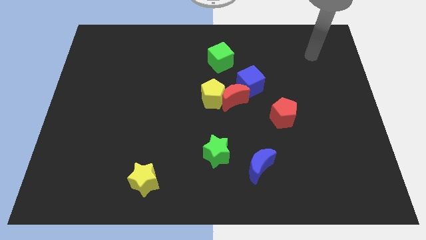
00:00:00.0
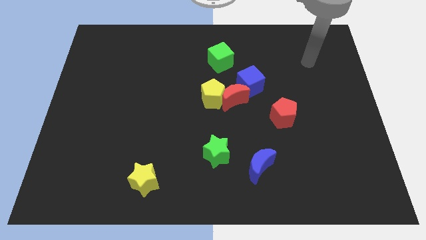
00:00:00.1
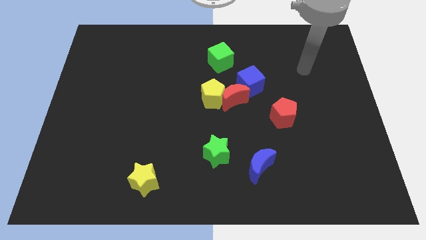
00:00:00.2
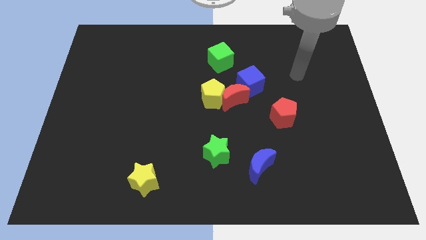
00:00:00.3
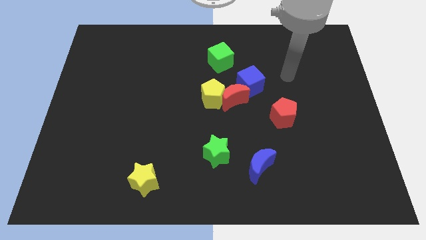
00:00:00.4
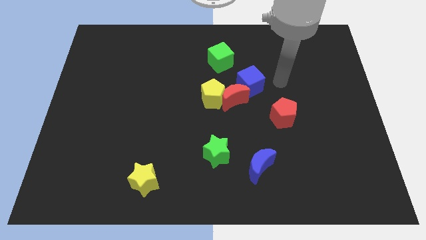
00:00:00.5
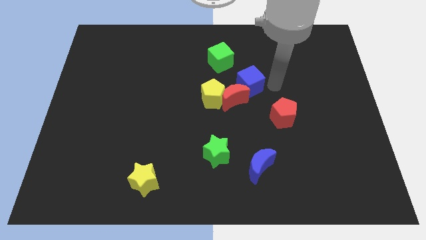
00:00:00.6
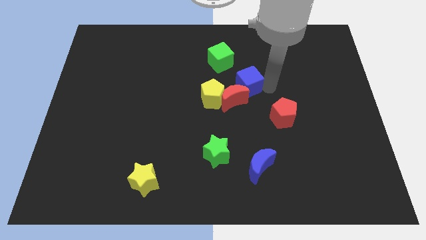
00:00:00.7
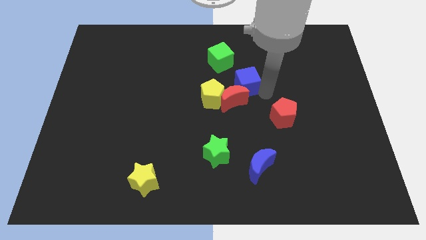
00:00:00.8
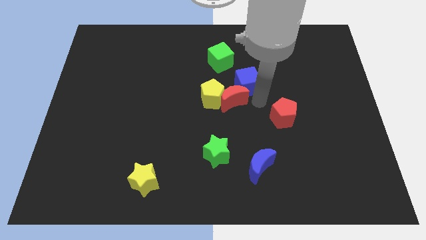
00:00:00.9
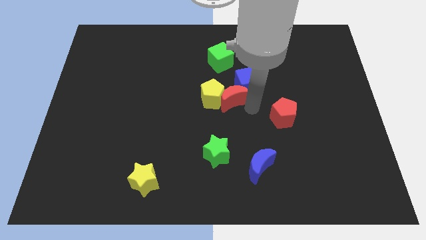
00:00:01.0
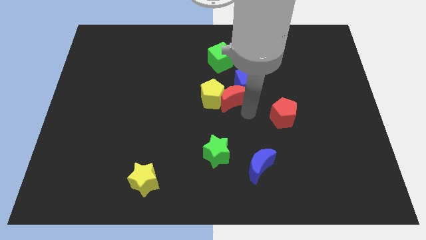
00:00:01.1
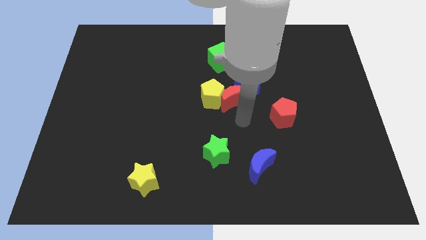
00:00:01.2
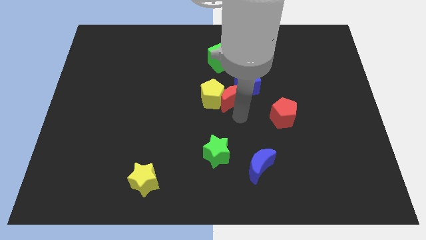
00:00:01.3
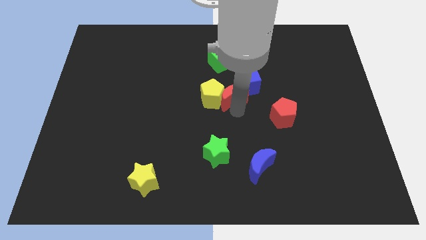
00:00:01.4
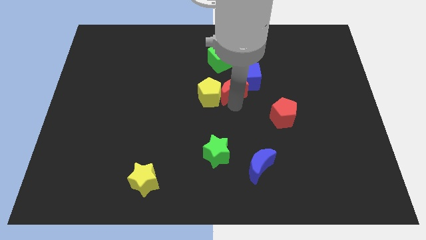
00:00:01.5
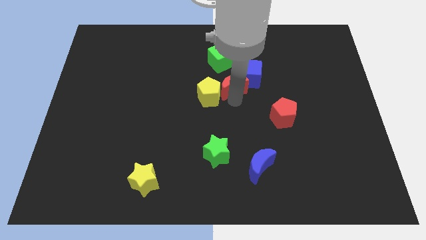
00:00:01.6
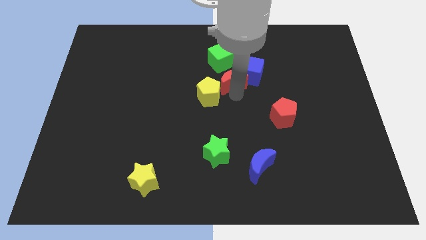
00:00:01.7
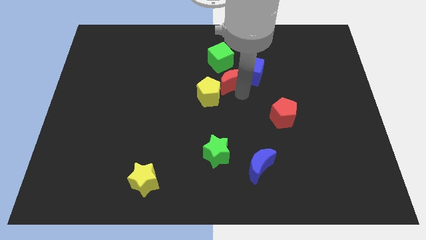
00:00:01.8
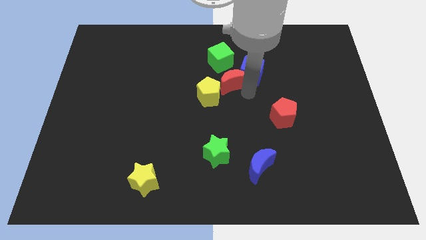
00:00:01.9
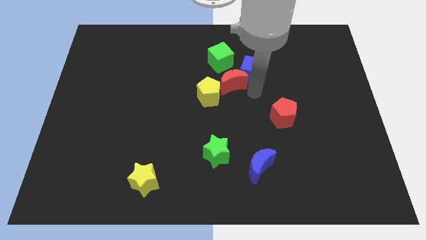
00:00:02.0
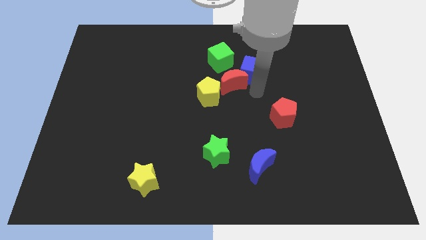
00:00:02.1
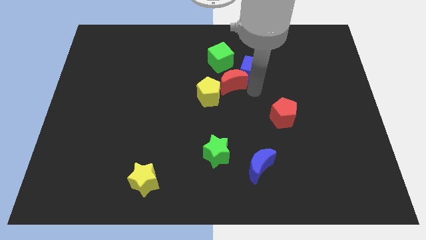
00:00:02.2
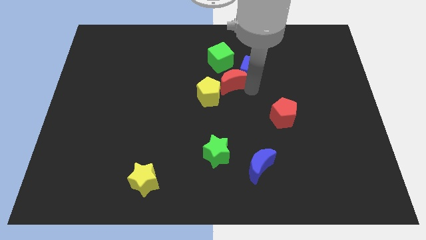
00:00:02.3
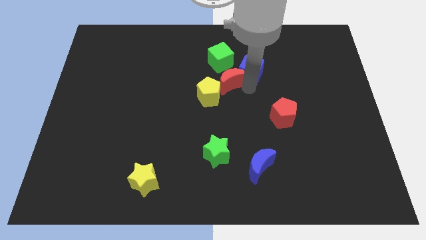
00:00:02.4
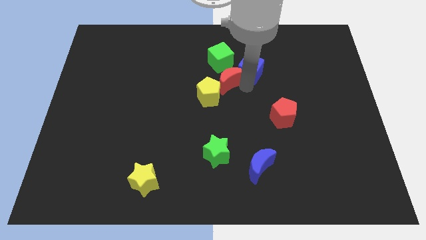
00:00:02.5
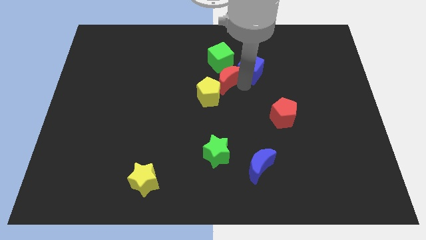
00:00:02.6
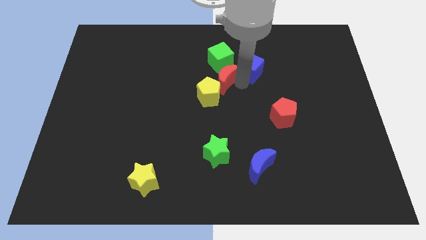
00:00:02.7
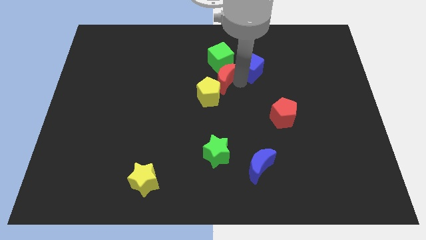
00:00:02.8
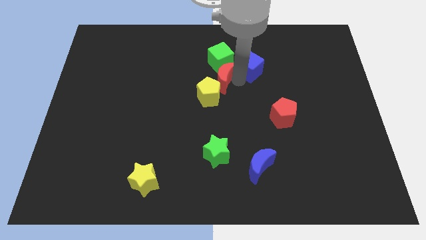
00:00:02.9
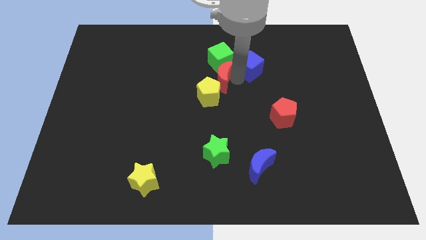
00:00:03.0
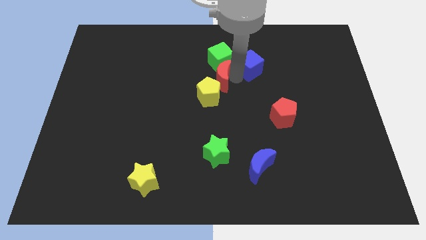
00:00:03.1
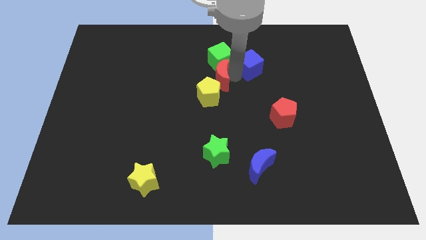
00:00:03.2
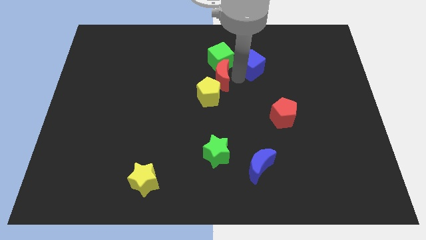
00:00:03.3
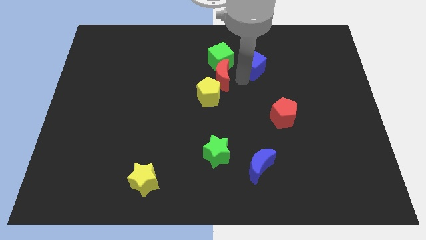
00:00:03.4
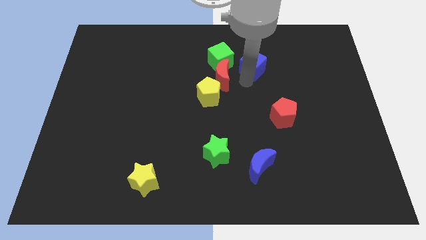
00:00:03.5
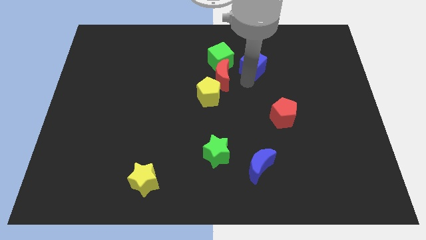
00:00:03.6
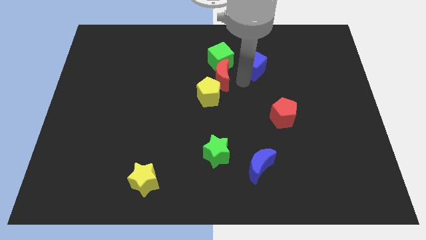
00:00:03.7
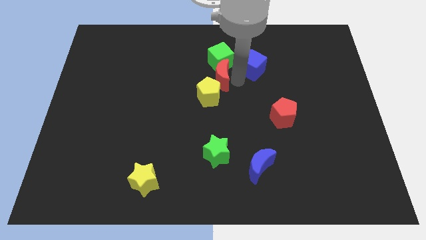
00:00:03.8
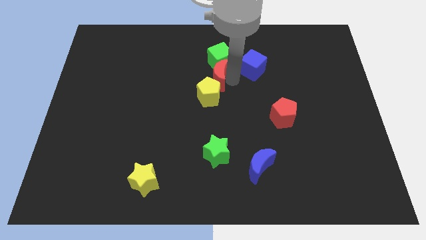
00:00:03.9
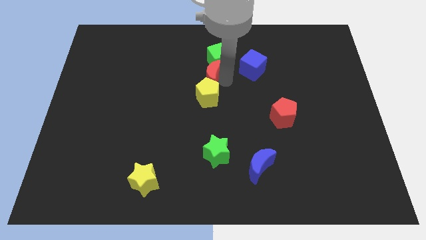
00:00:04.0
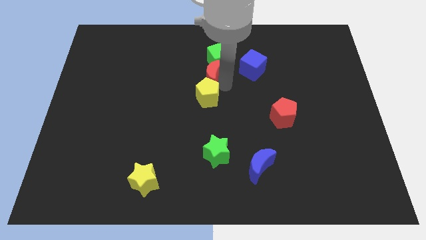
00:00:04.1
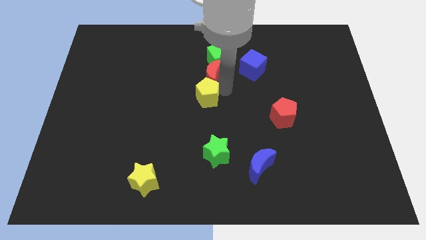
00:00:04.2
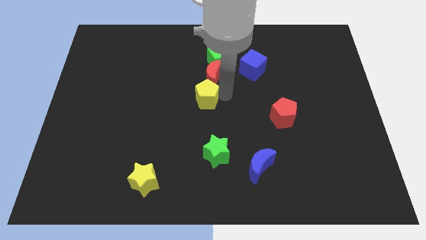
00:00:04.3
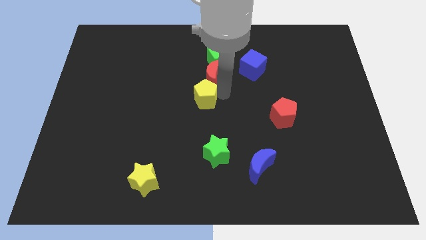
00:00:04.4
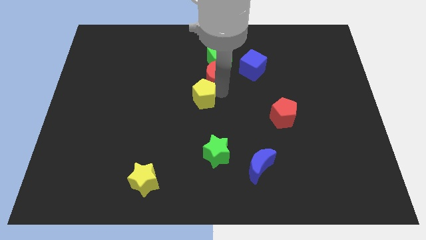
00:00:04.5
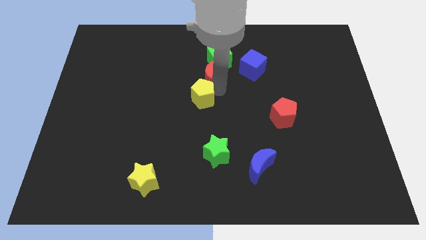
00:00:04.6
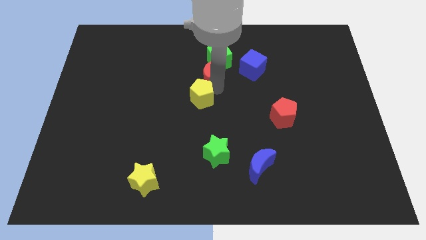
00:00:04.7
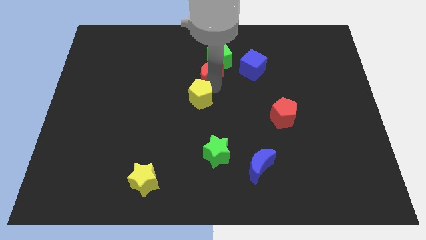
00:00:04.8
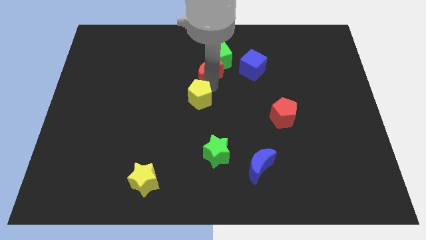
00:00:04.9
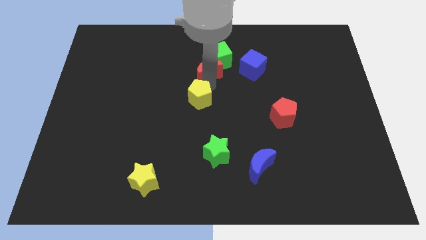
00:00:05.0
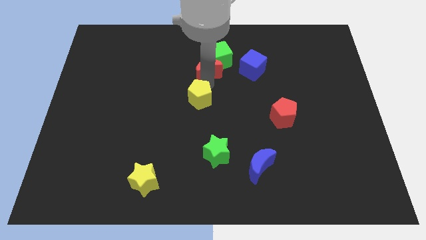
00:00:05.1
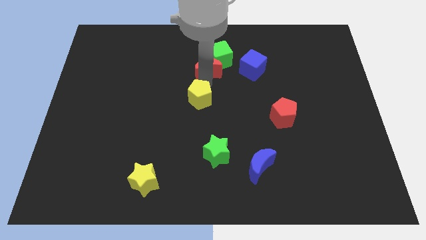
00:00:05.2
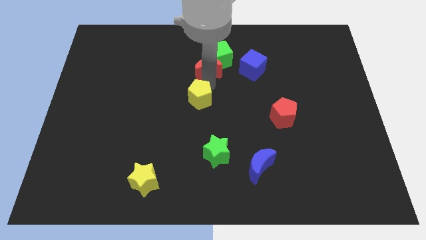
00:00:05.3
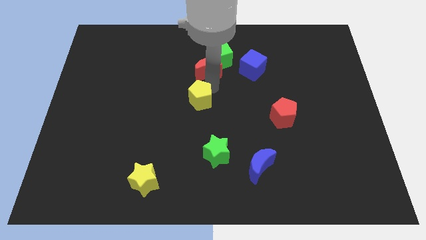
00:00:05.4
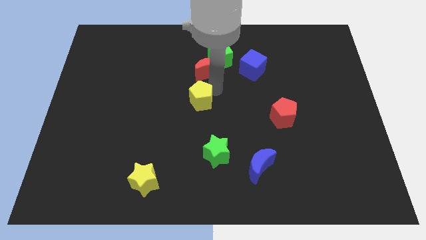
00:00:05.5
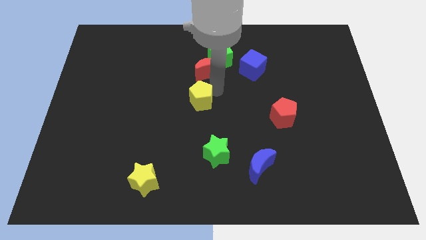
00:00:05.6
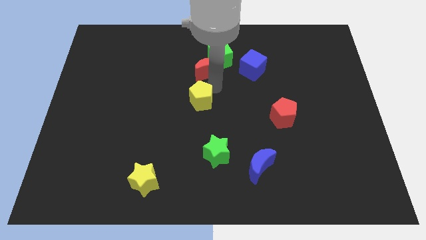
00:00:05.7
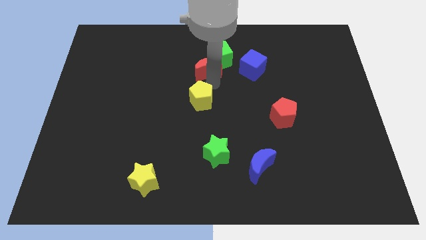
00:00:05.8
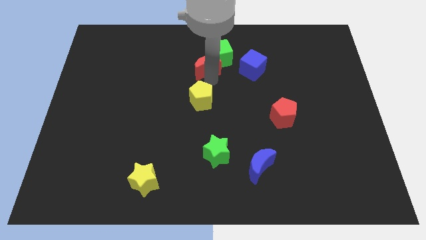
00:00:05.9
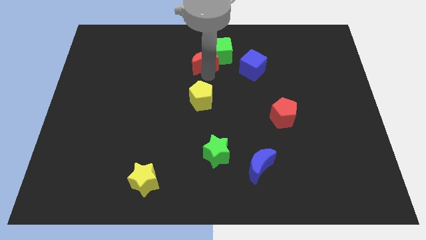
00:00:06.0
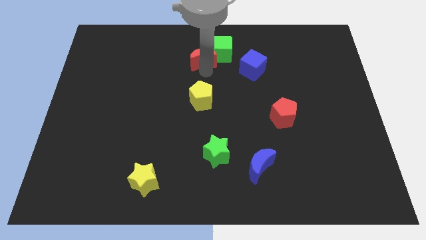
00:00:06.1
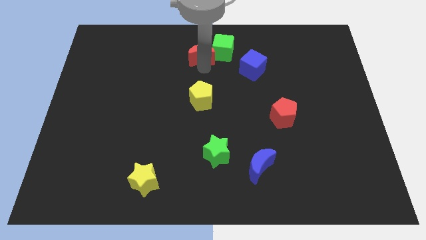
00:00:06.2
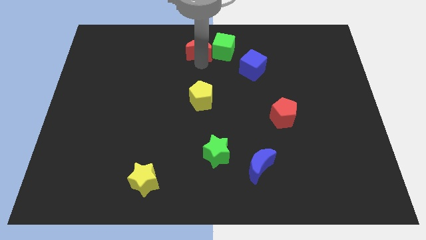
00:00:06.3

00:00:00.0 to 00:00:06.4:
slide the red moon to the top

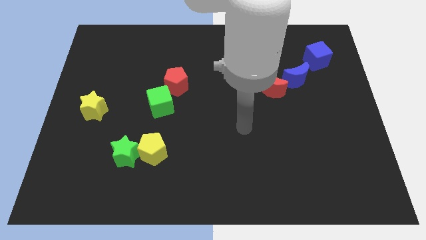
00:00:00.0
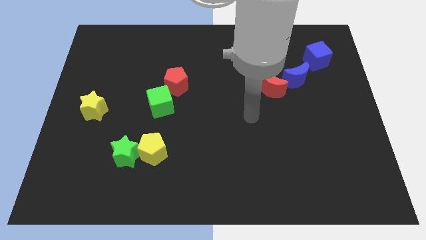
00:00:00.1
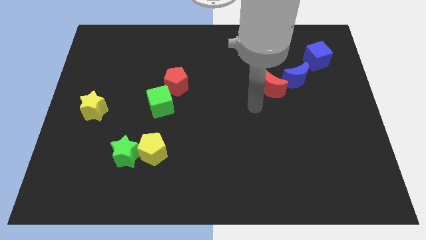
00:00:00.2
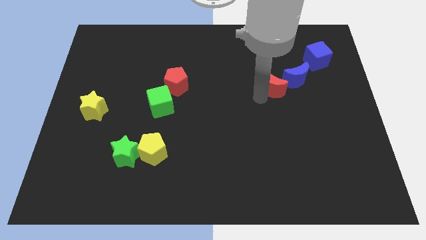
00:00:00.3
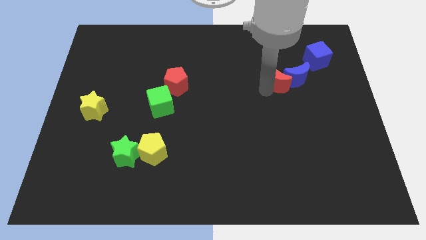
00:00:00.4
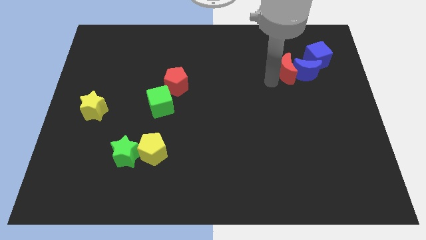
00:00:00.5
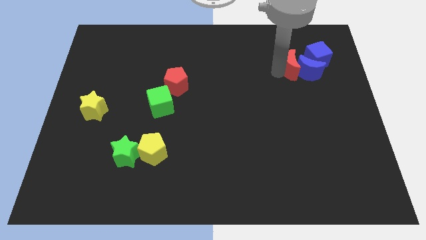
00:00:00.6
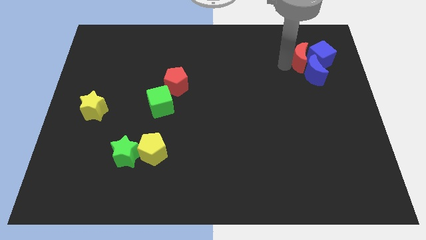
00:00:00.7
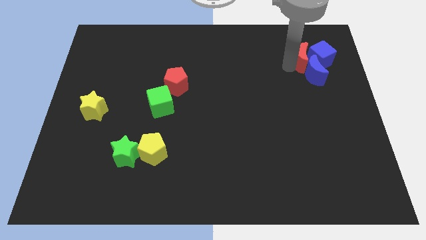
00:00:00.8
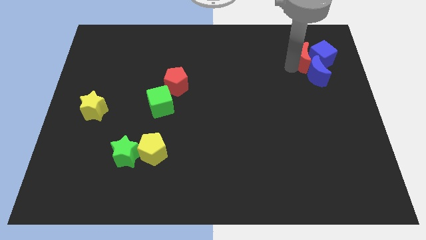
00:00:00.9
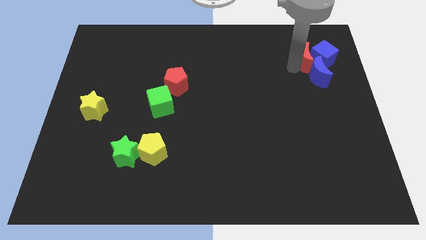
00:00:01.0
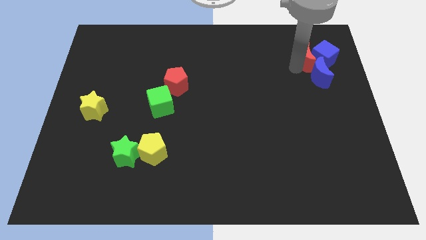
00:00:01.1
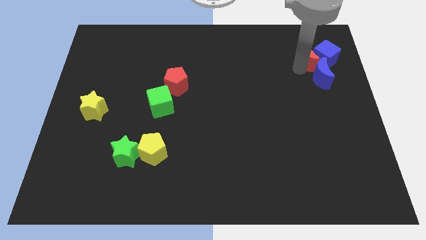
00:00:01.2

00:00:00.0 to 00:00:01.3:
move the blue moon to the right side

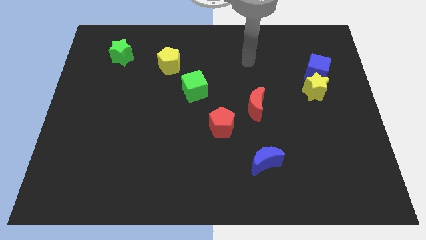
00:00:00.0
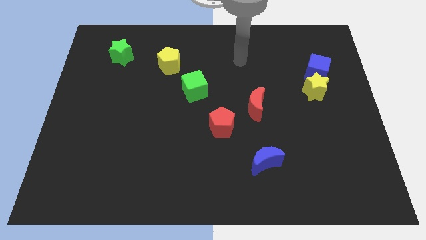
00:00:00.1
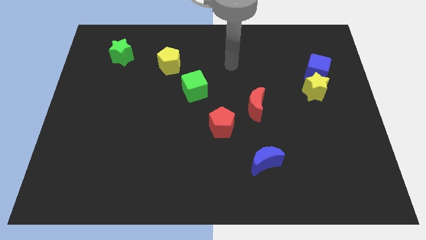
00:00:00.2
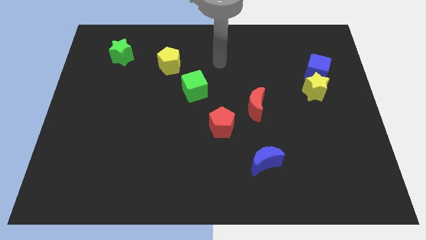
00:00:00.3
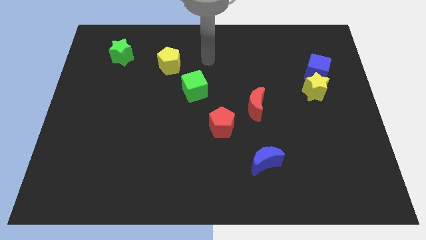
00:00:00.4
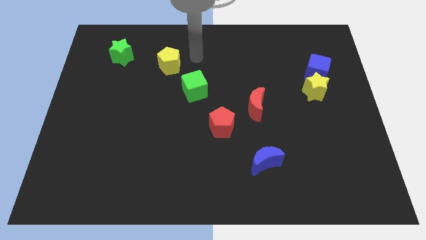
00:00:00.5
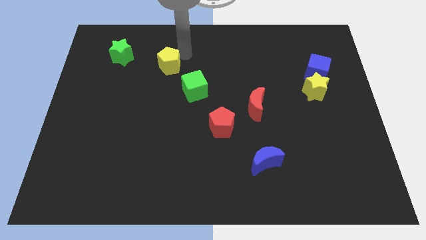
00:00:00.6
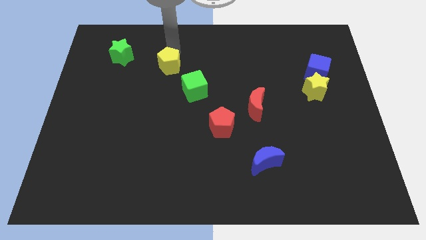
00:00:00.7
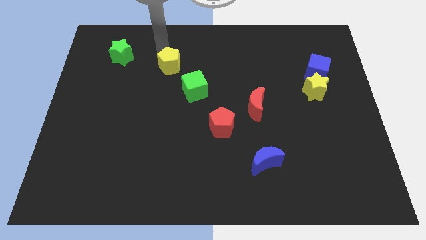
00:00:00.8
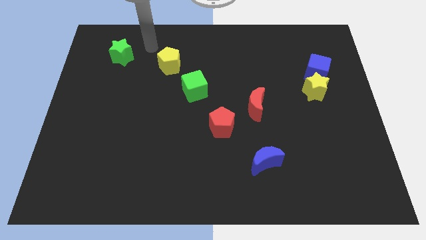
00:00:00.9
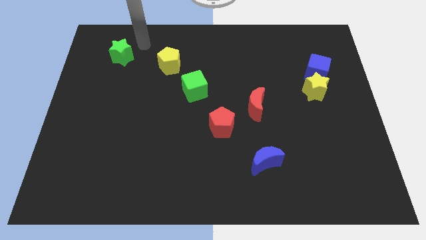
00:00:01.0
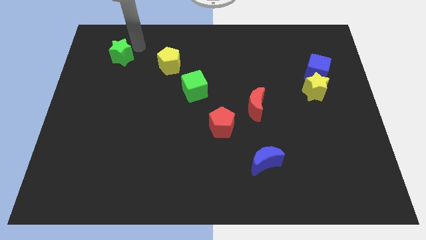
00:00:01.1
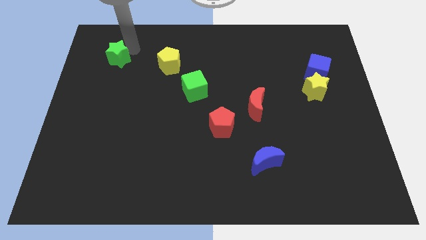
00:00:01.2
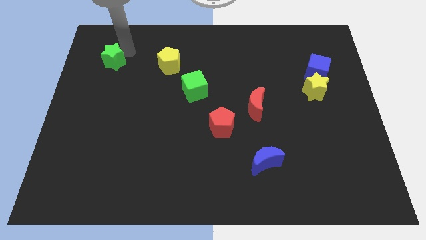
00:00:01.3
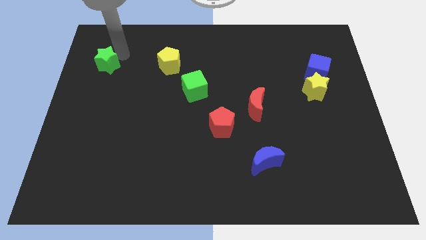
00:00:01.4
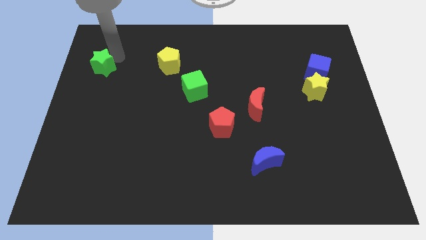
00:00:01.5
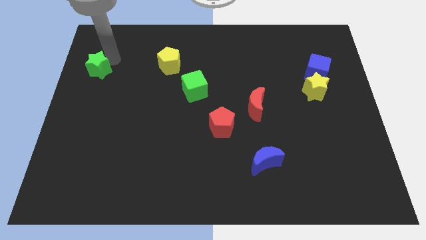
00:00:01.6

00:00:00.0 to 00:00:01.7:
push the green star to the left side
